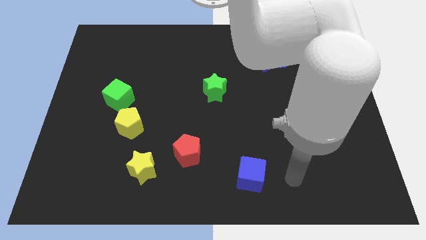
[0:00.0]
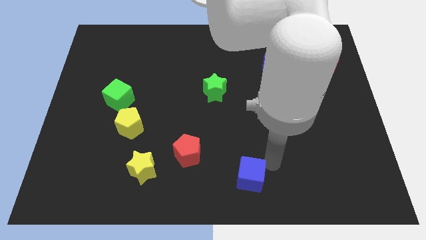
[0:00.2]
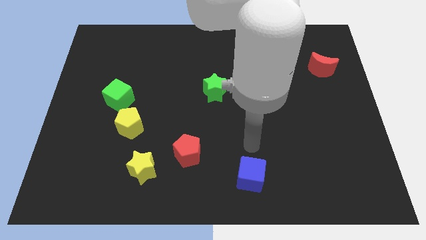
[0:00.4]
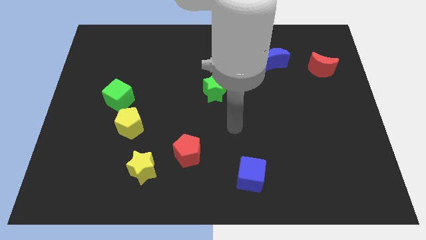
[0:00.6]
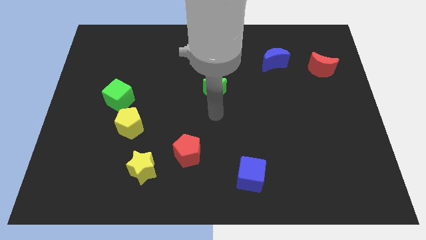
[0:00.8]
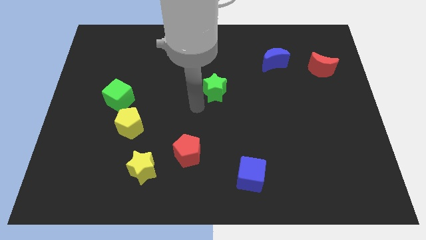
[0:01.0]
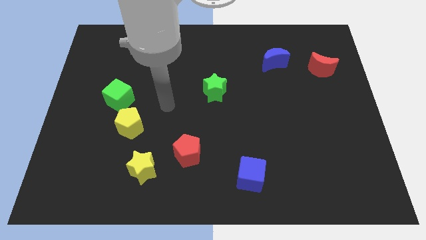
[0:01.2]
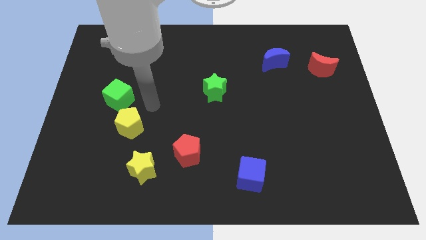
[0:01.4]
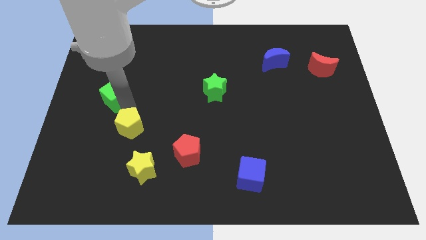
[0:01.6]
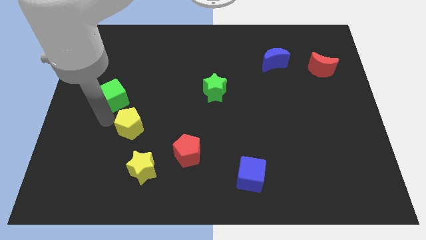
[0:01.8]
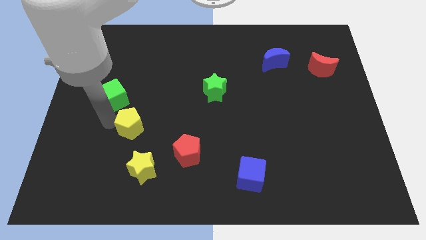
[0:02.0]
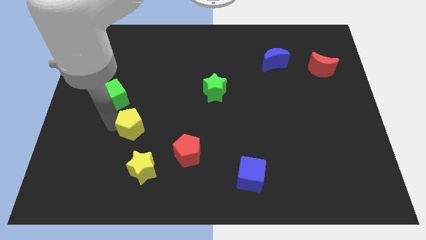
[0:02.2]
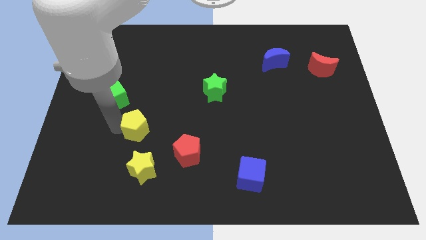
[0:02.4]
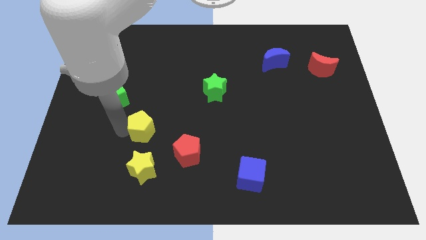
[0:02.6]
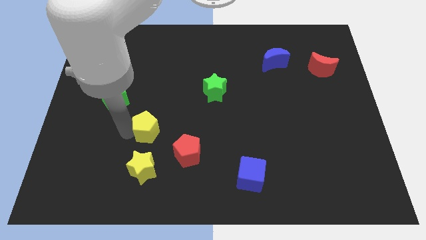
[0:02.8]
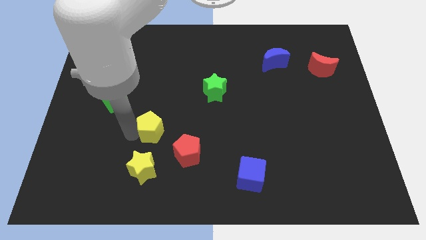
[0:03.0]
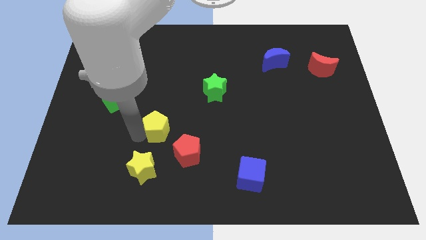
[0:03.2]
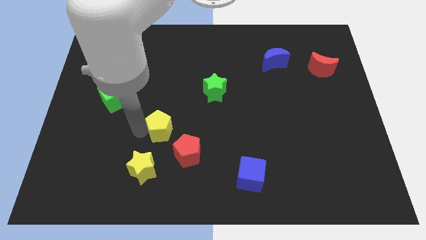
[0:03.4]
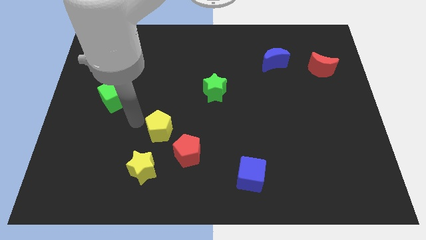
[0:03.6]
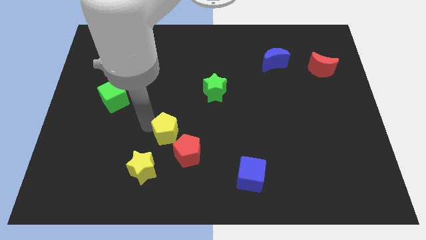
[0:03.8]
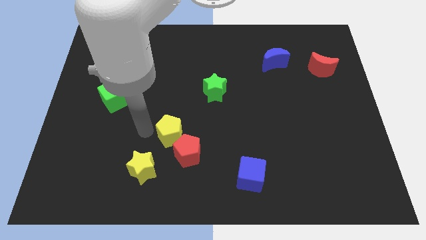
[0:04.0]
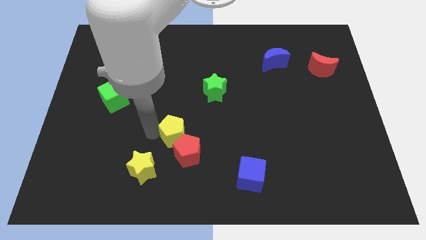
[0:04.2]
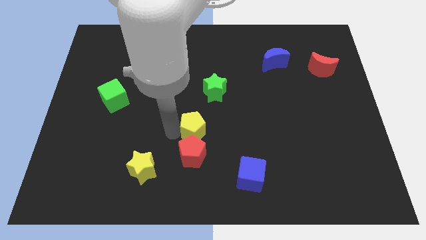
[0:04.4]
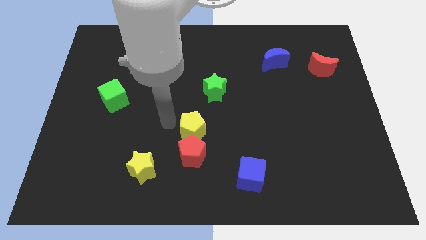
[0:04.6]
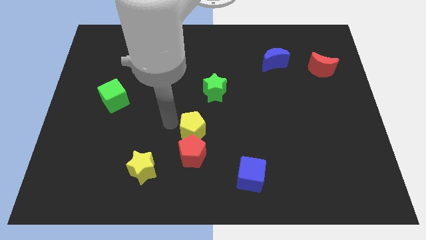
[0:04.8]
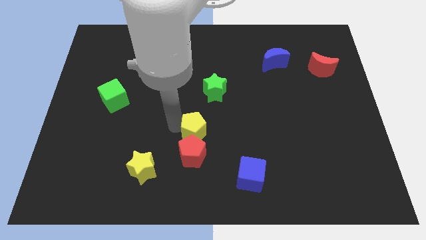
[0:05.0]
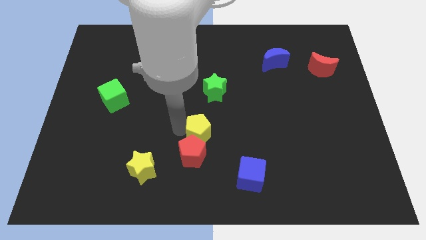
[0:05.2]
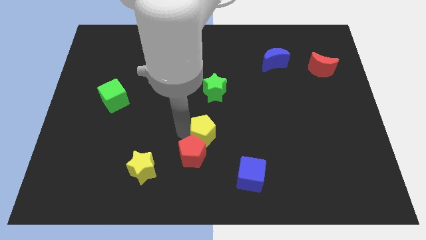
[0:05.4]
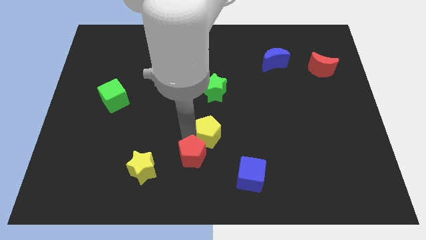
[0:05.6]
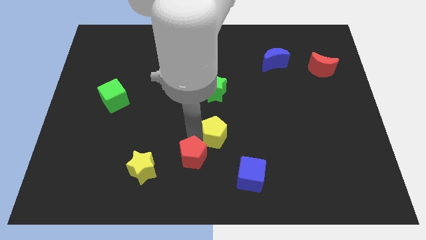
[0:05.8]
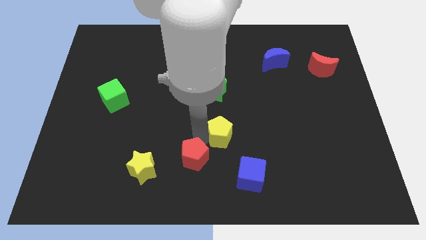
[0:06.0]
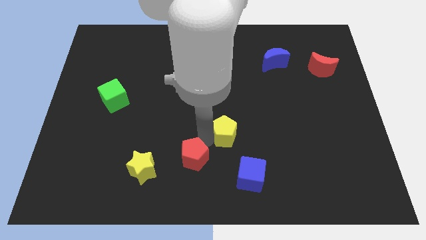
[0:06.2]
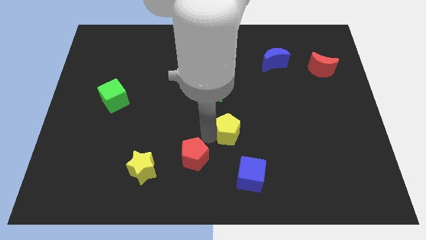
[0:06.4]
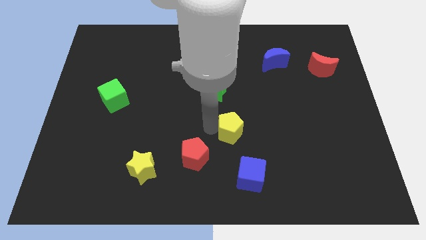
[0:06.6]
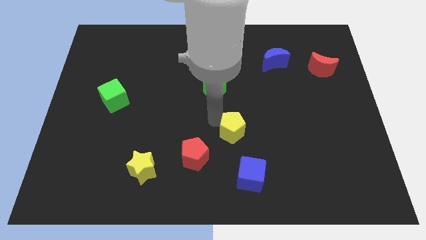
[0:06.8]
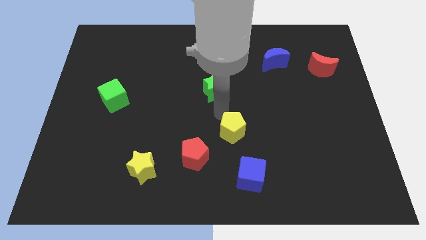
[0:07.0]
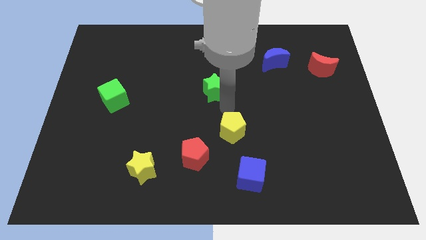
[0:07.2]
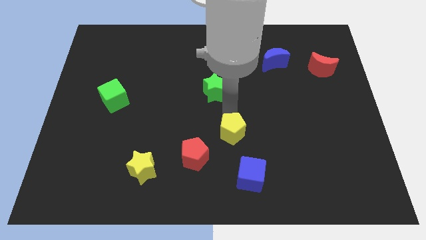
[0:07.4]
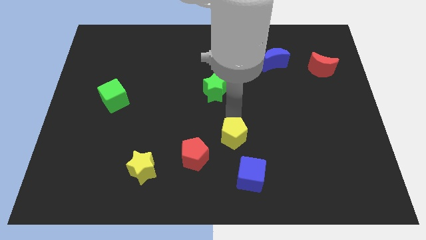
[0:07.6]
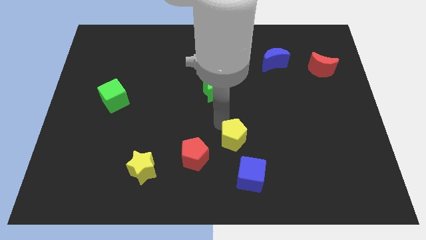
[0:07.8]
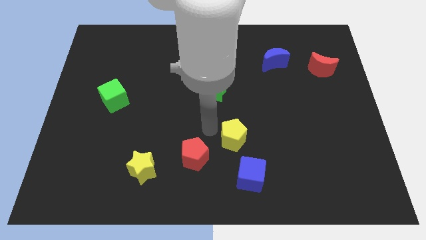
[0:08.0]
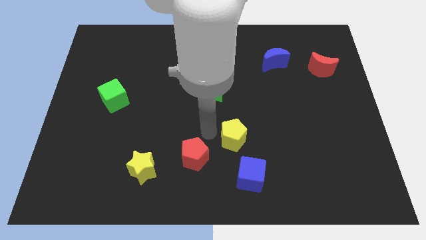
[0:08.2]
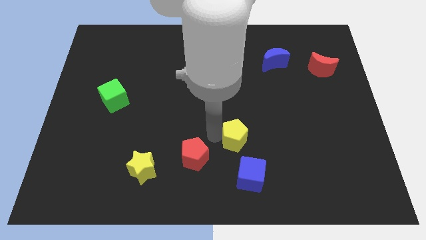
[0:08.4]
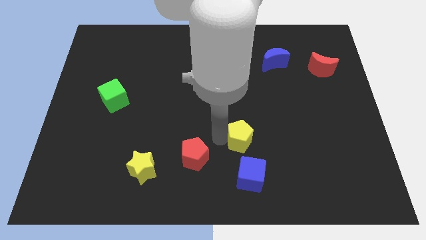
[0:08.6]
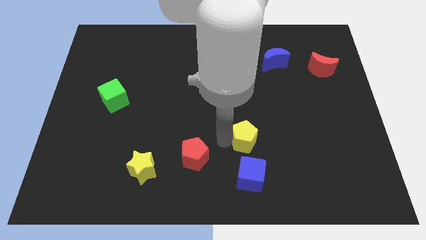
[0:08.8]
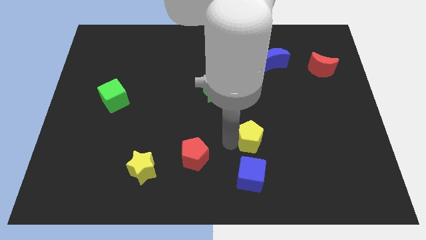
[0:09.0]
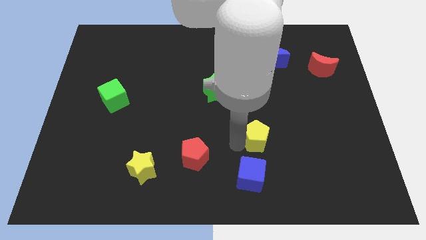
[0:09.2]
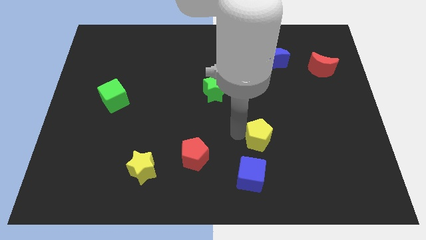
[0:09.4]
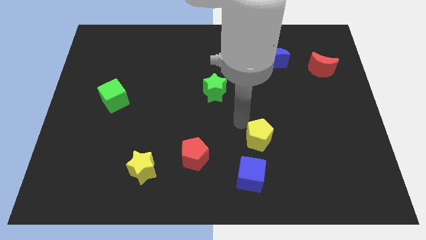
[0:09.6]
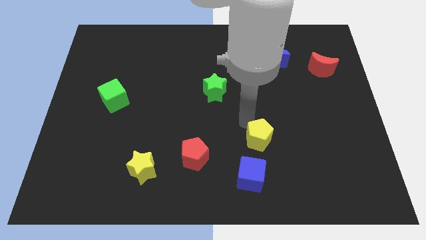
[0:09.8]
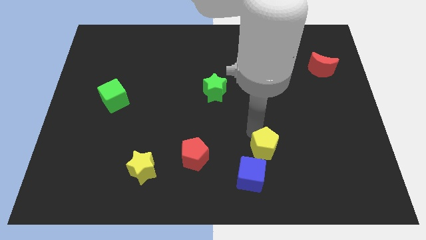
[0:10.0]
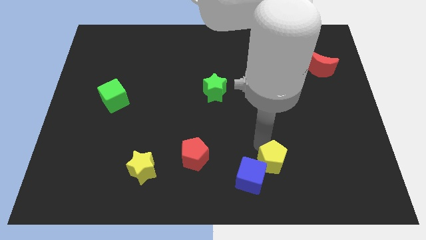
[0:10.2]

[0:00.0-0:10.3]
slide the yellow pentagon right of the blue cube

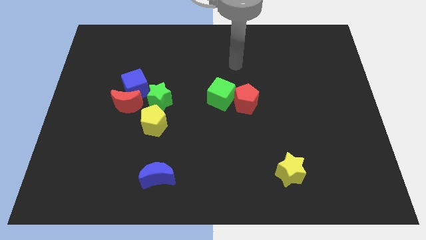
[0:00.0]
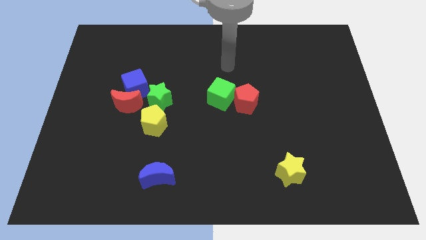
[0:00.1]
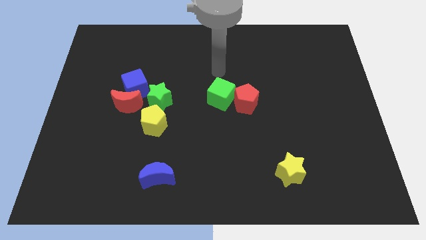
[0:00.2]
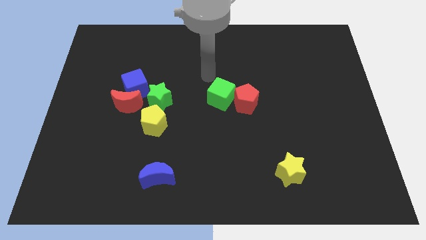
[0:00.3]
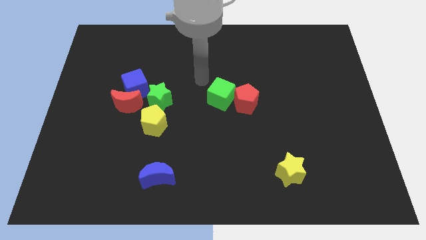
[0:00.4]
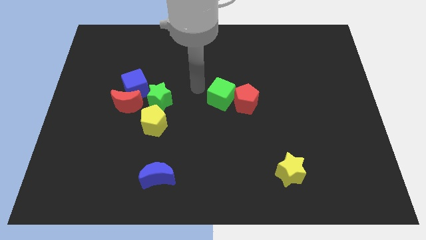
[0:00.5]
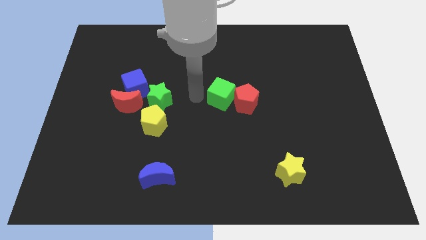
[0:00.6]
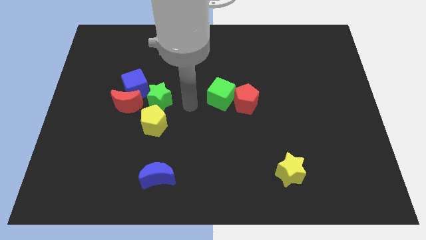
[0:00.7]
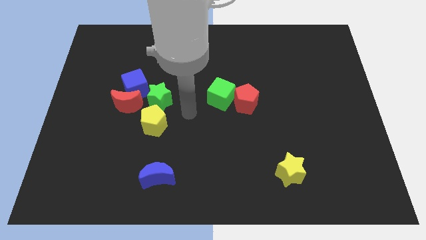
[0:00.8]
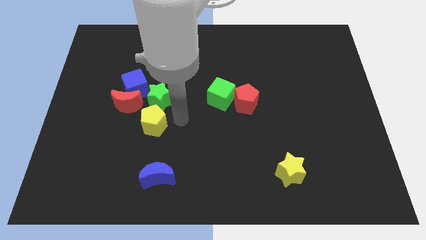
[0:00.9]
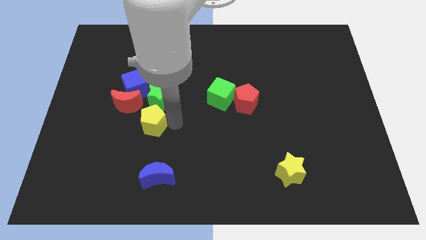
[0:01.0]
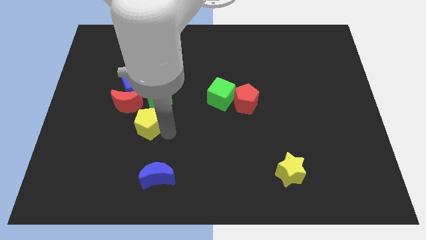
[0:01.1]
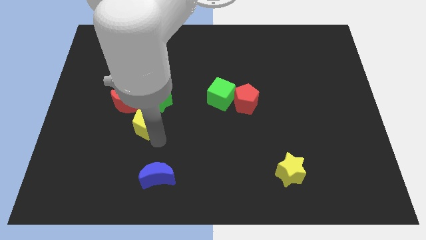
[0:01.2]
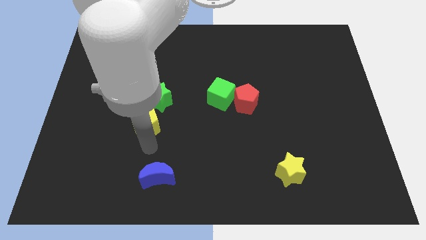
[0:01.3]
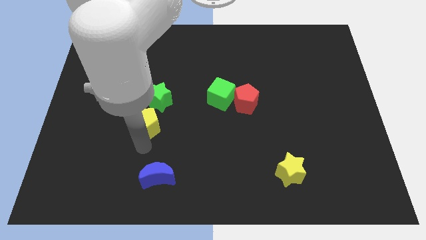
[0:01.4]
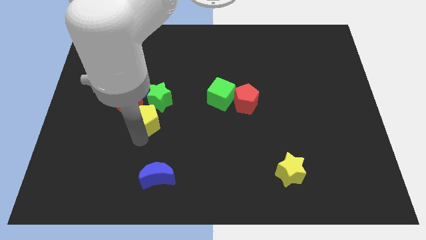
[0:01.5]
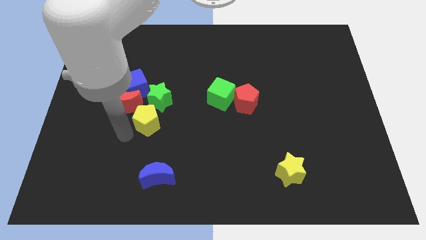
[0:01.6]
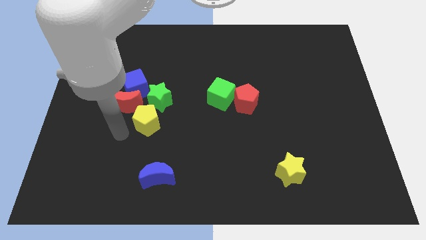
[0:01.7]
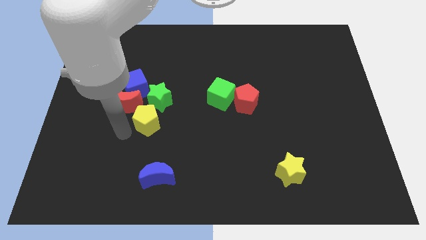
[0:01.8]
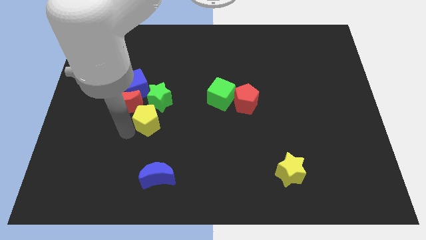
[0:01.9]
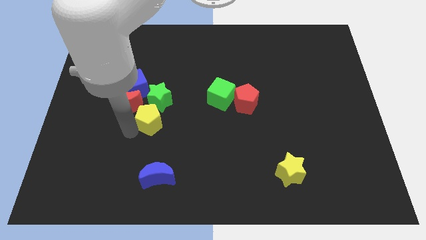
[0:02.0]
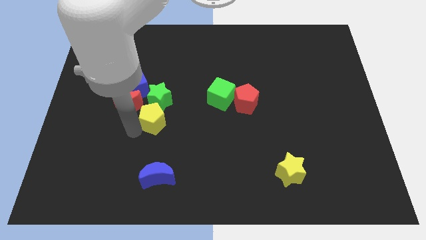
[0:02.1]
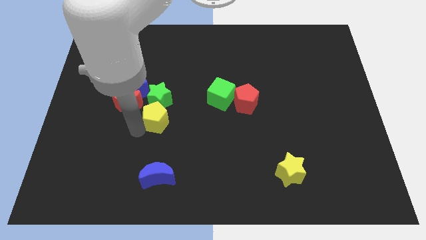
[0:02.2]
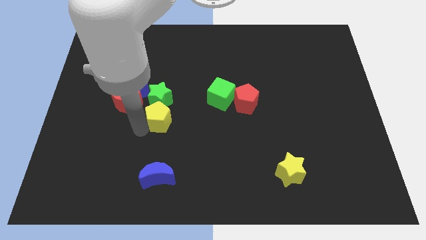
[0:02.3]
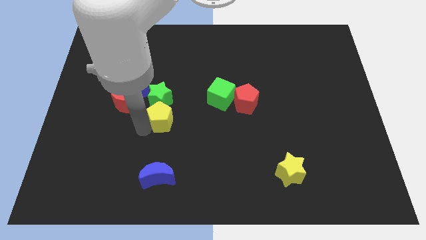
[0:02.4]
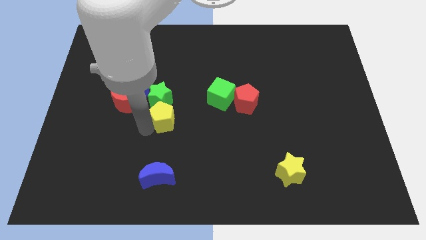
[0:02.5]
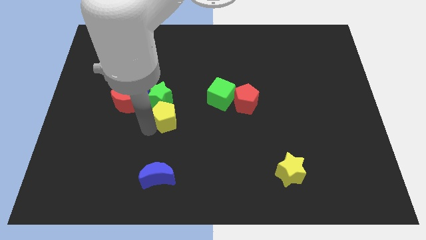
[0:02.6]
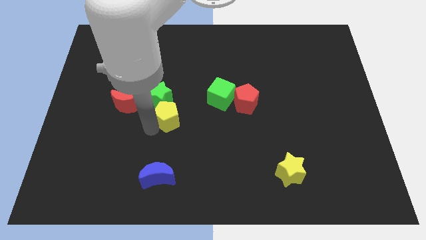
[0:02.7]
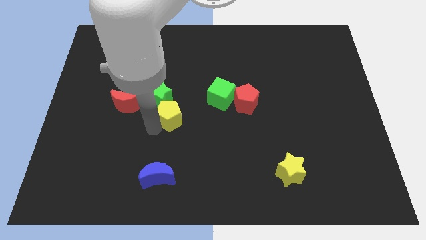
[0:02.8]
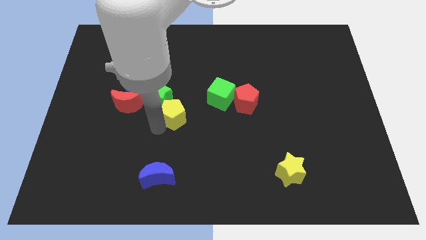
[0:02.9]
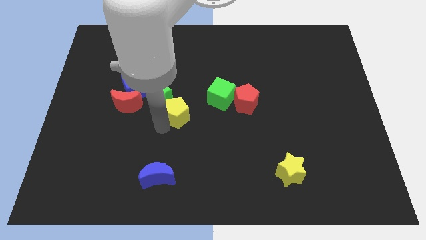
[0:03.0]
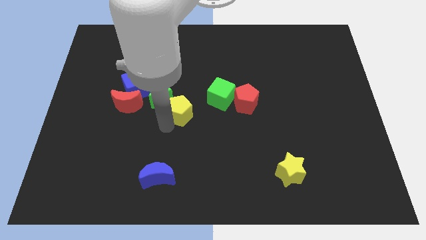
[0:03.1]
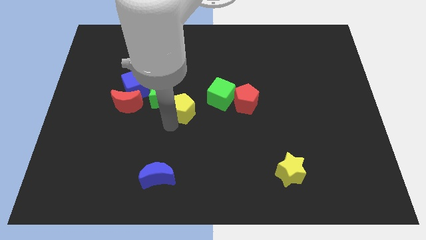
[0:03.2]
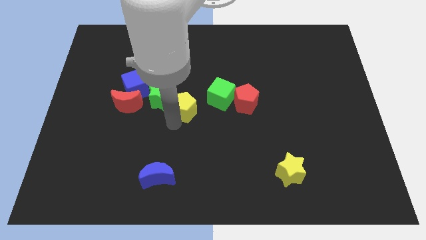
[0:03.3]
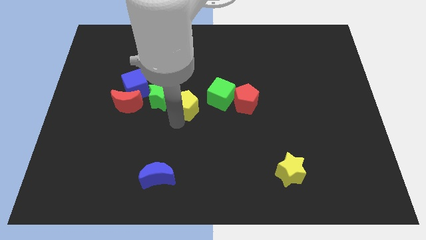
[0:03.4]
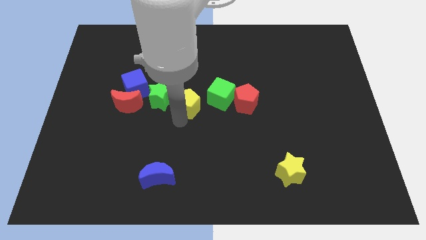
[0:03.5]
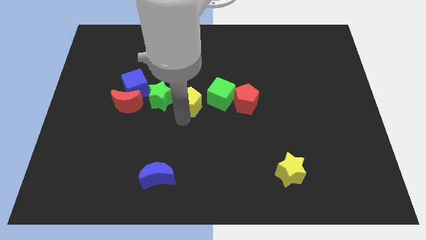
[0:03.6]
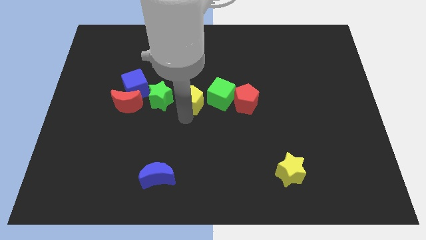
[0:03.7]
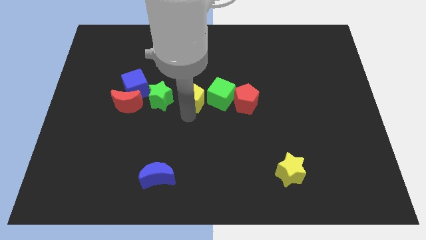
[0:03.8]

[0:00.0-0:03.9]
push the yellow pentagon to the right of the blue cube
